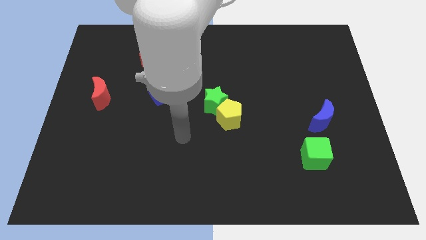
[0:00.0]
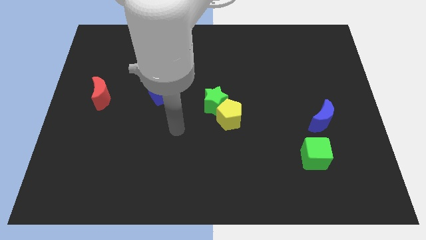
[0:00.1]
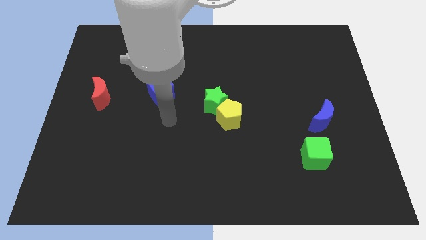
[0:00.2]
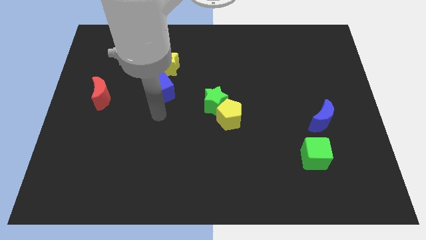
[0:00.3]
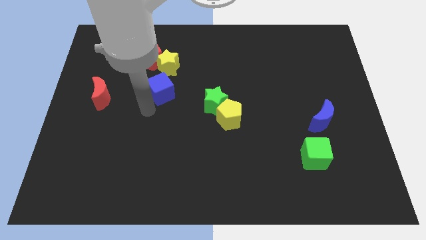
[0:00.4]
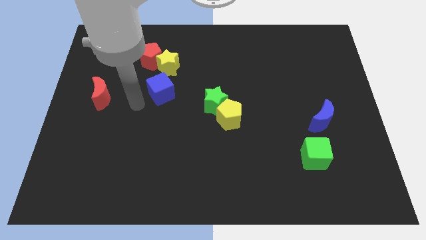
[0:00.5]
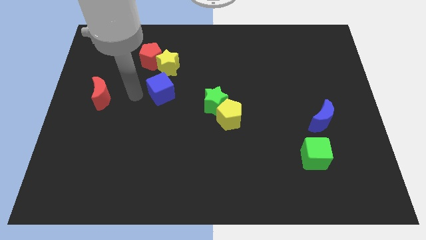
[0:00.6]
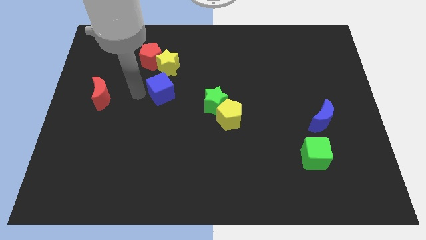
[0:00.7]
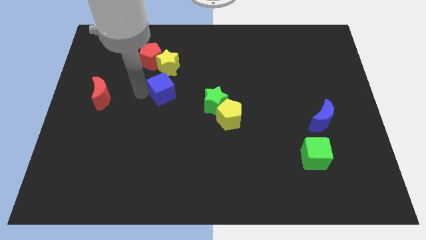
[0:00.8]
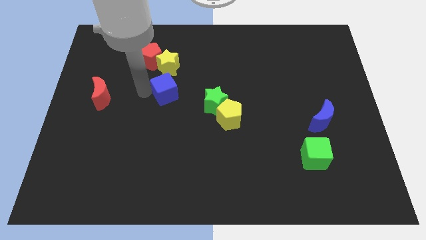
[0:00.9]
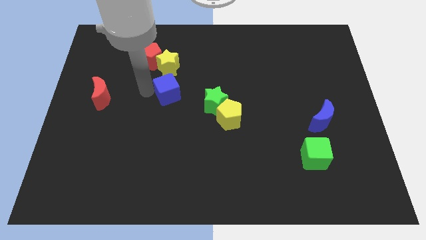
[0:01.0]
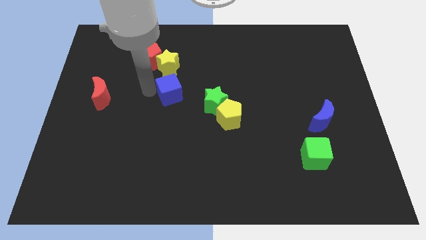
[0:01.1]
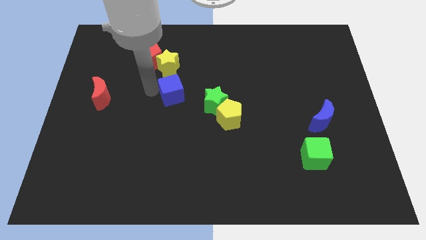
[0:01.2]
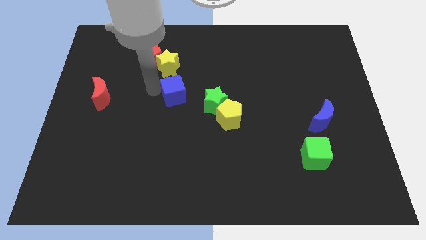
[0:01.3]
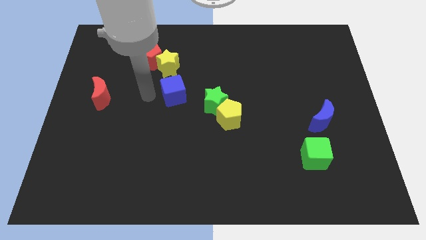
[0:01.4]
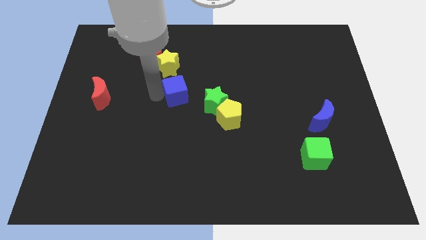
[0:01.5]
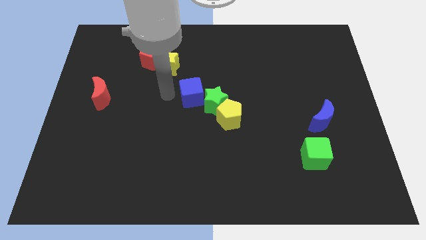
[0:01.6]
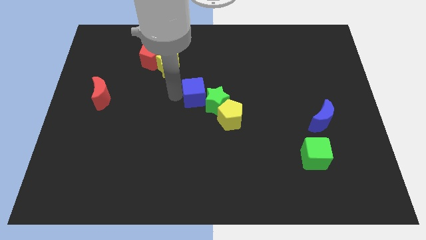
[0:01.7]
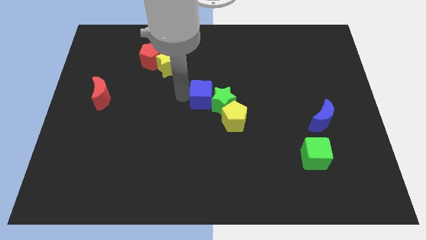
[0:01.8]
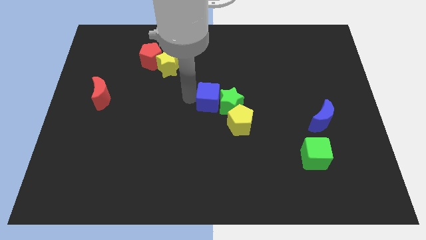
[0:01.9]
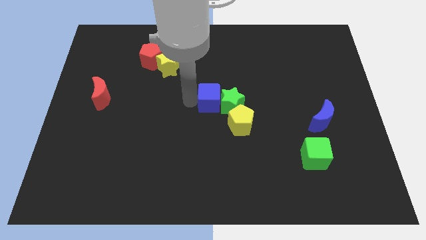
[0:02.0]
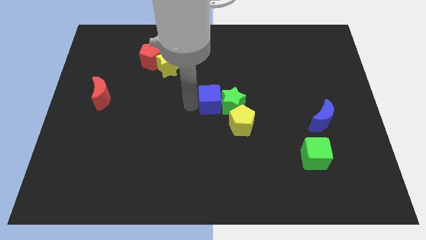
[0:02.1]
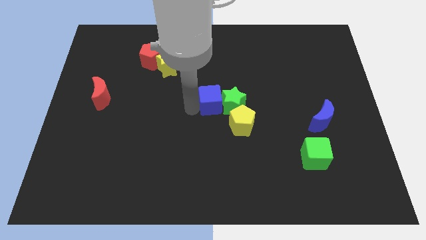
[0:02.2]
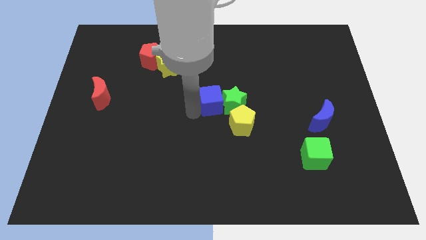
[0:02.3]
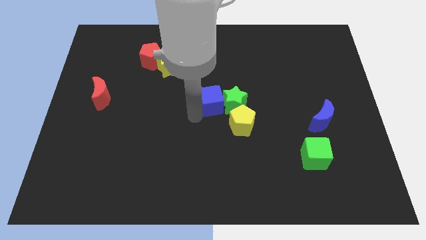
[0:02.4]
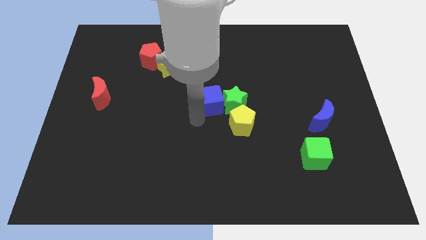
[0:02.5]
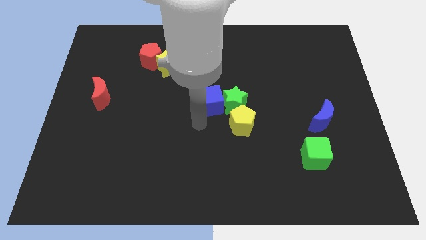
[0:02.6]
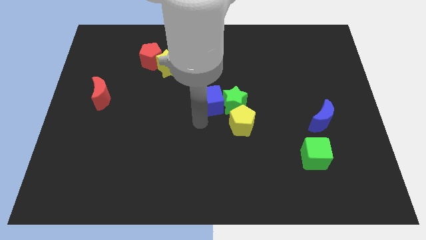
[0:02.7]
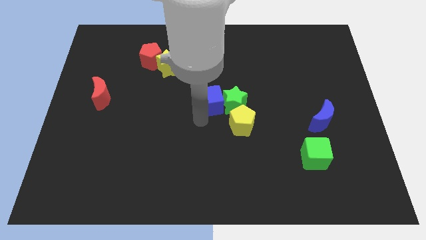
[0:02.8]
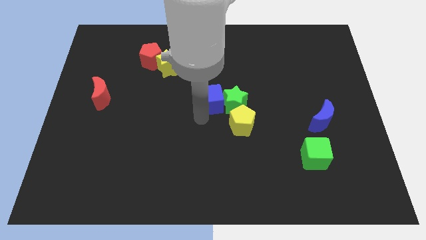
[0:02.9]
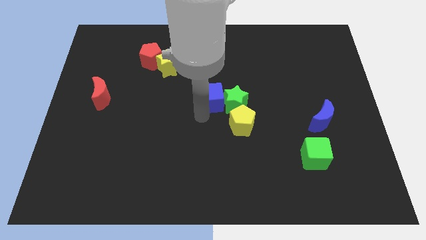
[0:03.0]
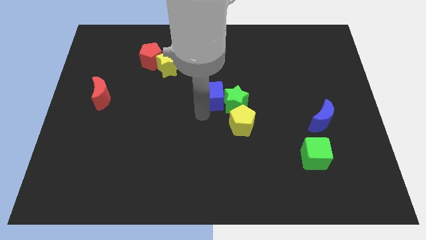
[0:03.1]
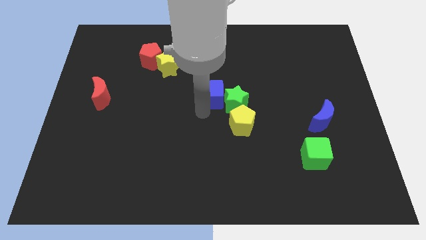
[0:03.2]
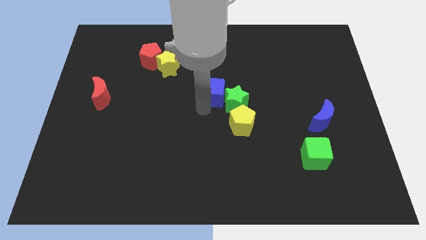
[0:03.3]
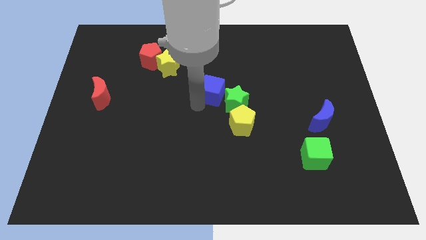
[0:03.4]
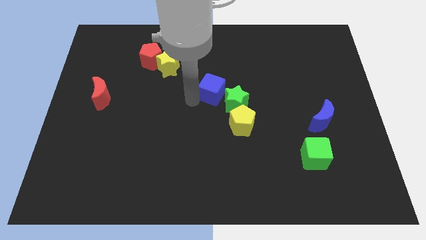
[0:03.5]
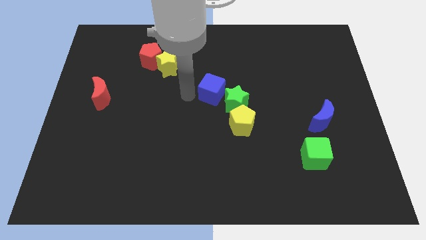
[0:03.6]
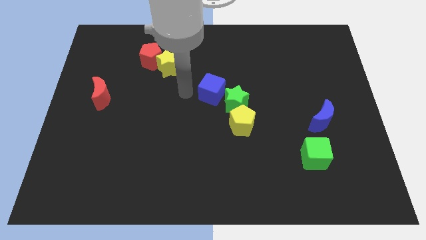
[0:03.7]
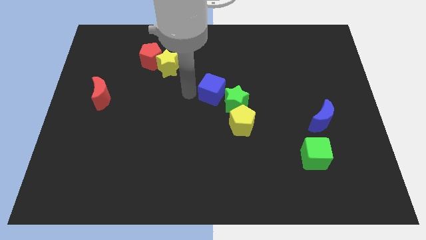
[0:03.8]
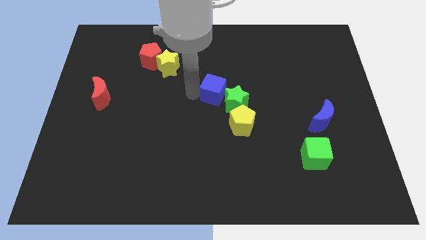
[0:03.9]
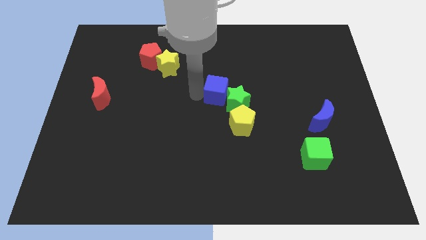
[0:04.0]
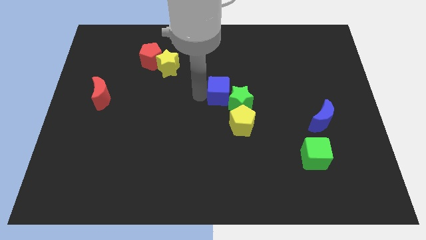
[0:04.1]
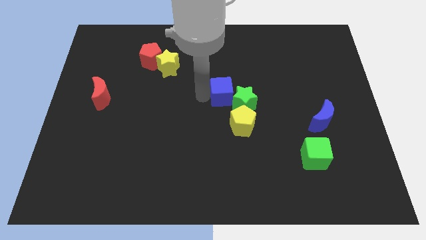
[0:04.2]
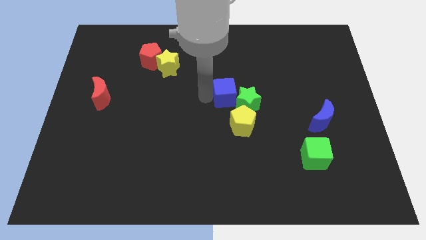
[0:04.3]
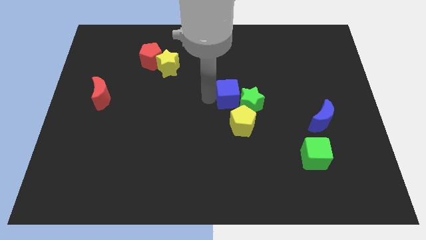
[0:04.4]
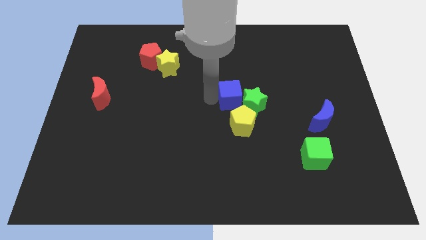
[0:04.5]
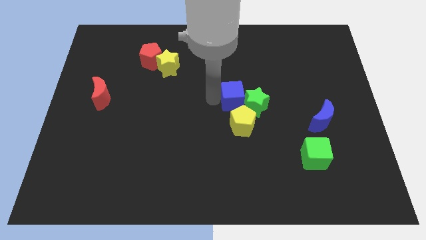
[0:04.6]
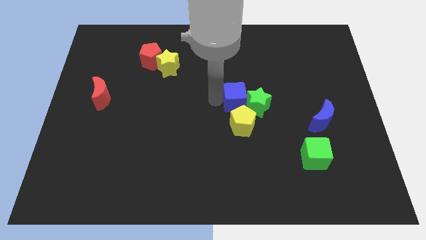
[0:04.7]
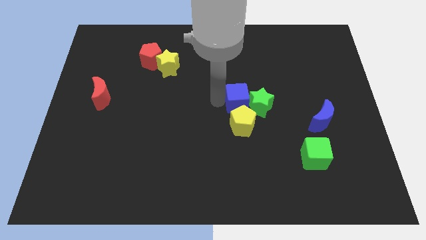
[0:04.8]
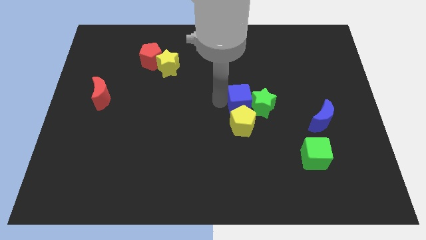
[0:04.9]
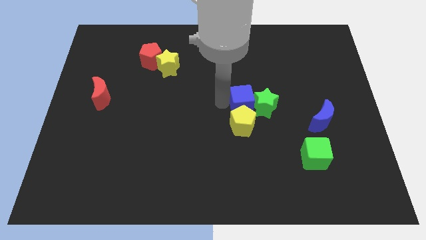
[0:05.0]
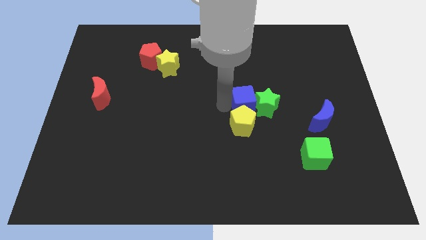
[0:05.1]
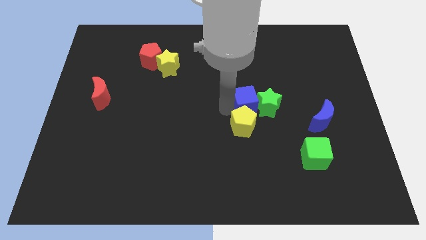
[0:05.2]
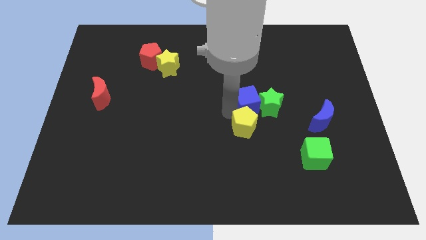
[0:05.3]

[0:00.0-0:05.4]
slide the blue cube to the right

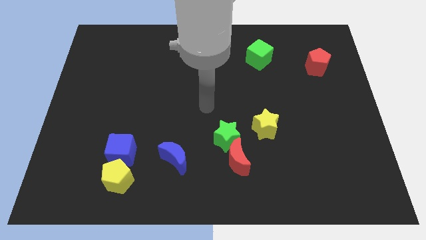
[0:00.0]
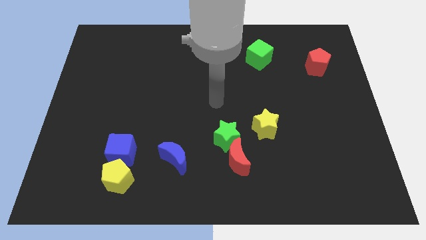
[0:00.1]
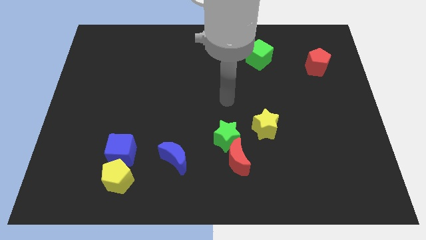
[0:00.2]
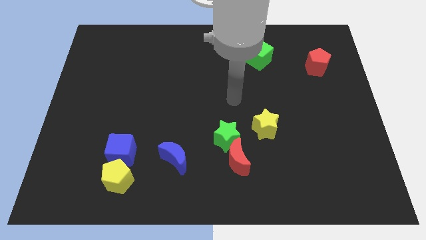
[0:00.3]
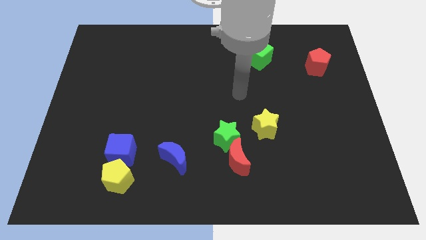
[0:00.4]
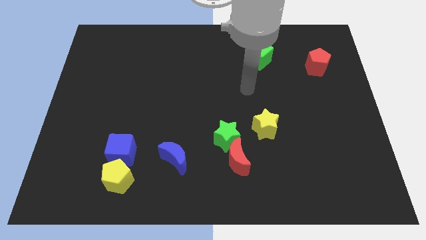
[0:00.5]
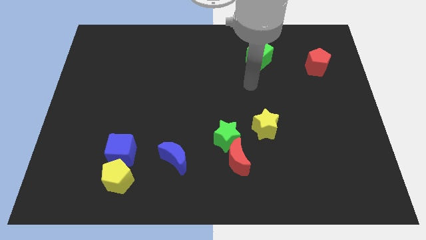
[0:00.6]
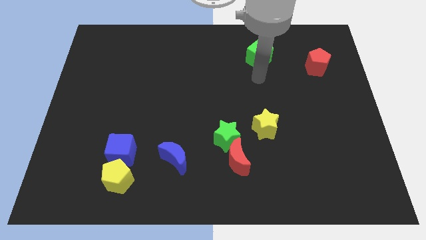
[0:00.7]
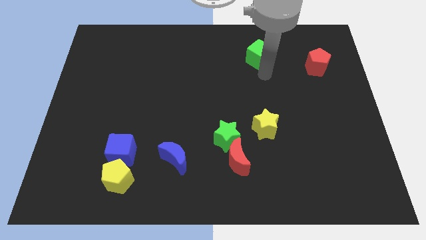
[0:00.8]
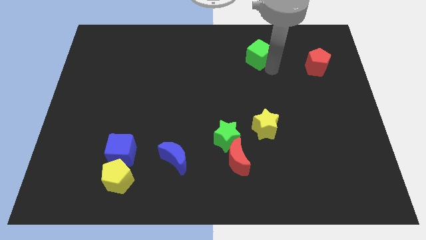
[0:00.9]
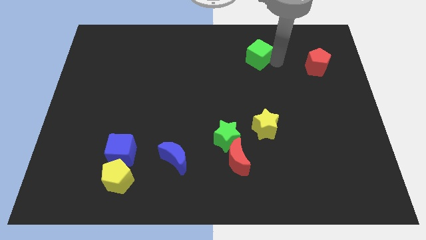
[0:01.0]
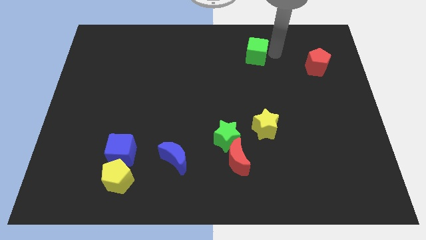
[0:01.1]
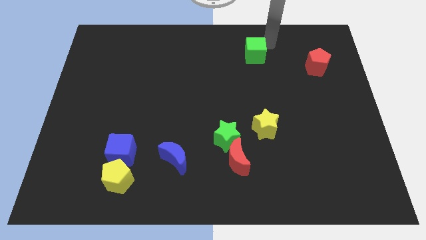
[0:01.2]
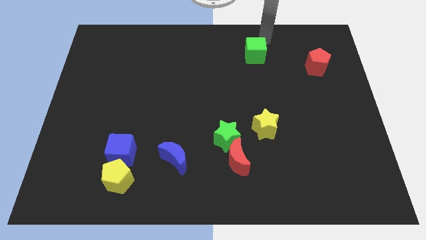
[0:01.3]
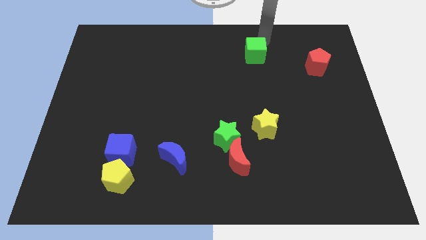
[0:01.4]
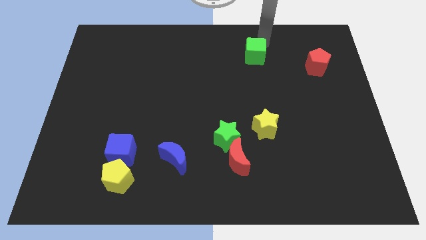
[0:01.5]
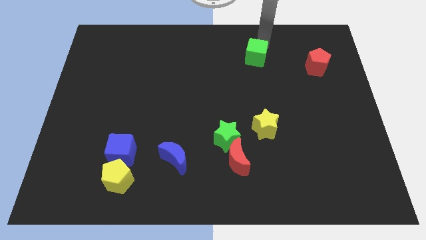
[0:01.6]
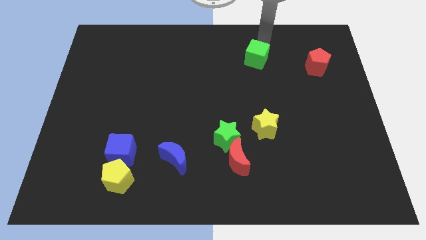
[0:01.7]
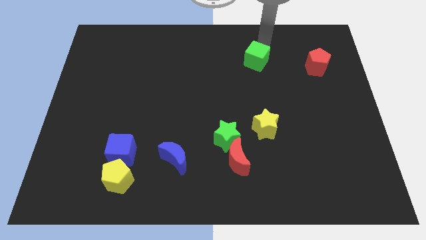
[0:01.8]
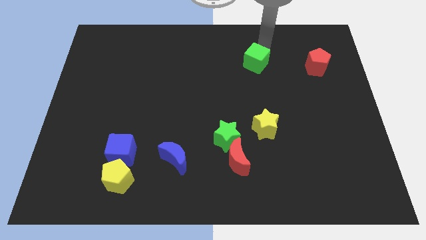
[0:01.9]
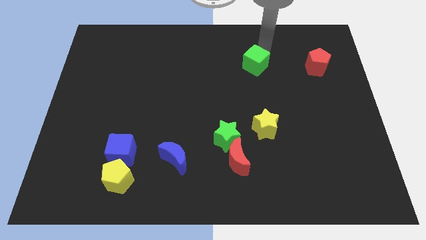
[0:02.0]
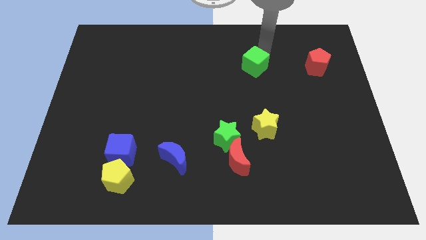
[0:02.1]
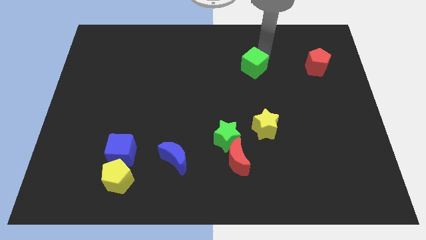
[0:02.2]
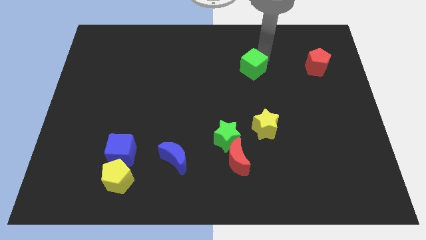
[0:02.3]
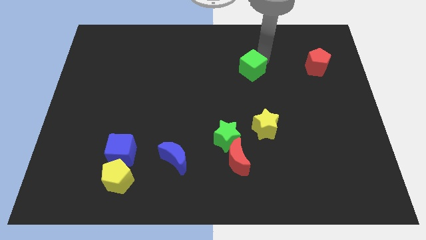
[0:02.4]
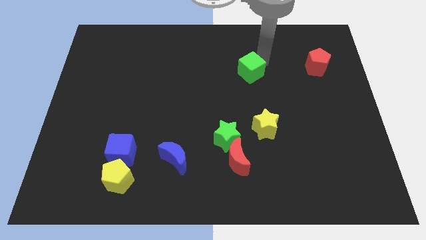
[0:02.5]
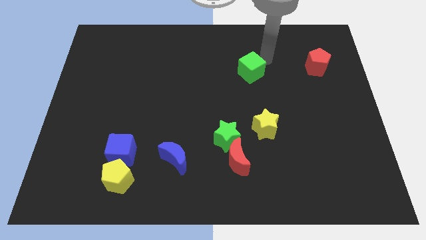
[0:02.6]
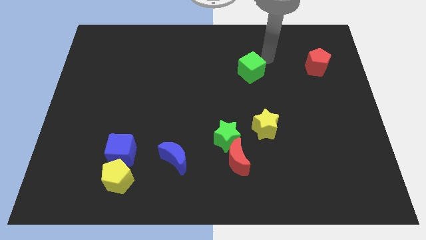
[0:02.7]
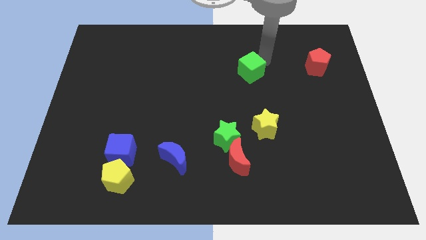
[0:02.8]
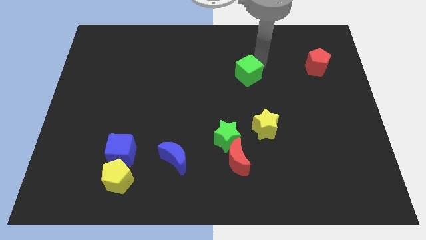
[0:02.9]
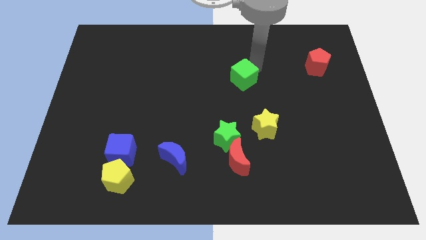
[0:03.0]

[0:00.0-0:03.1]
move the green cube slightly diagonally down and left
